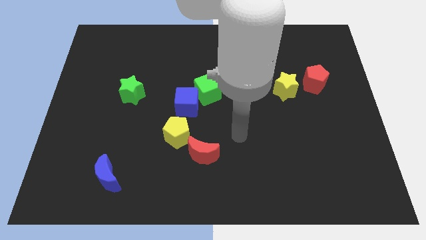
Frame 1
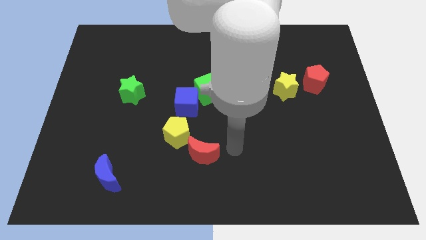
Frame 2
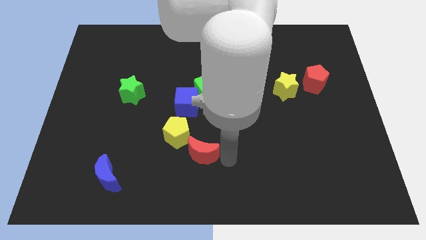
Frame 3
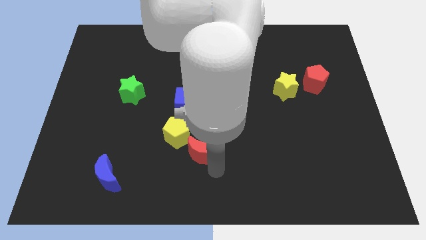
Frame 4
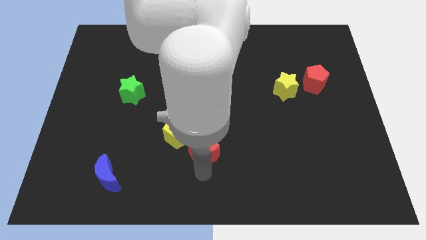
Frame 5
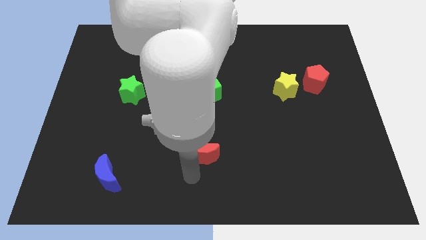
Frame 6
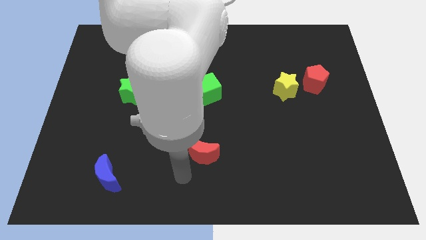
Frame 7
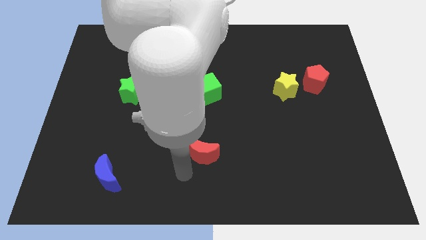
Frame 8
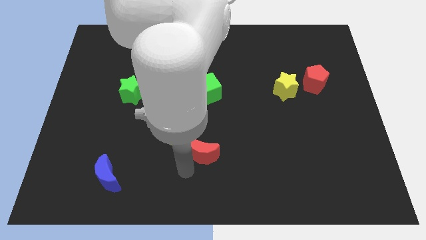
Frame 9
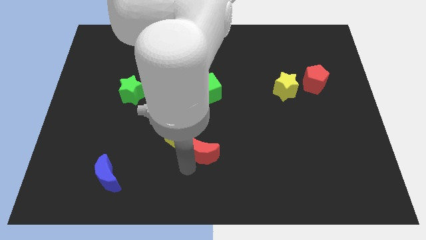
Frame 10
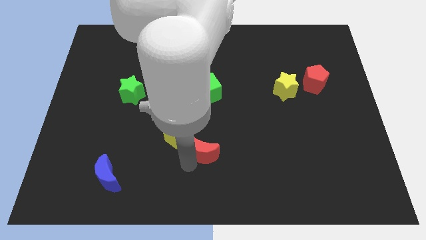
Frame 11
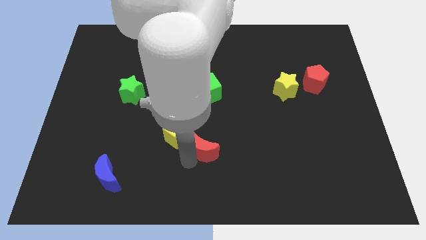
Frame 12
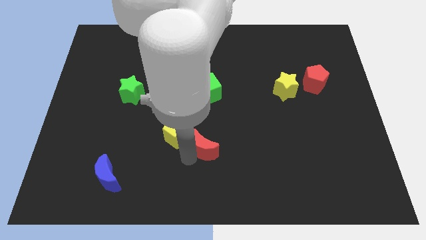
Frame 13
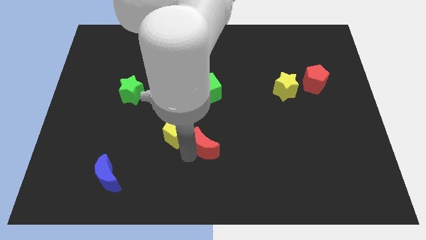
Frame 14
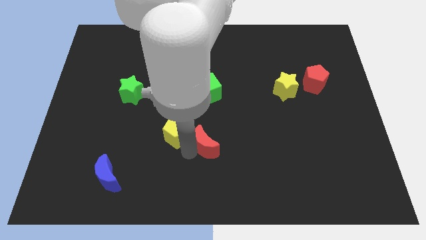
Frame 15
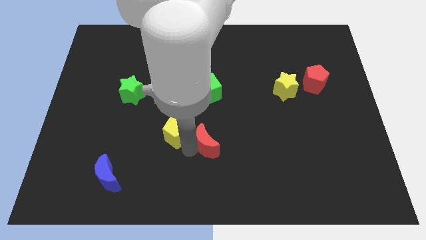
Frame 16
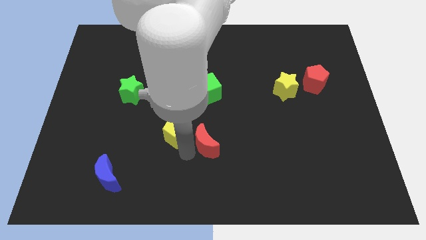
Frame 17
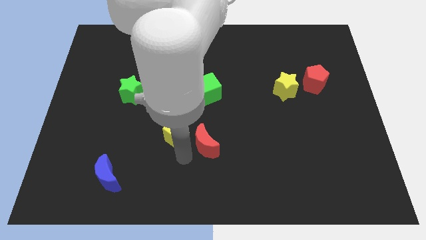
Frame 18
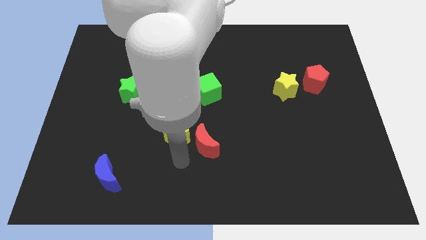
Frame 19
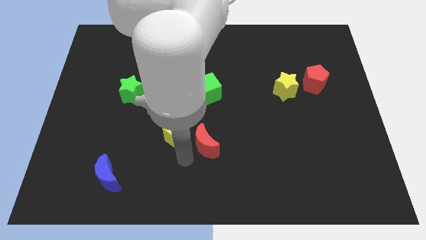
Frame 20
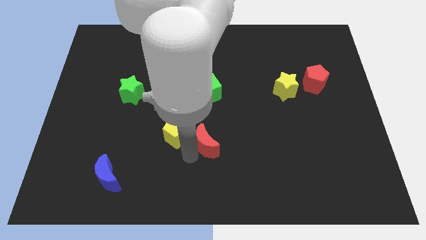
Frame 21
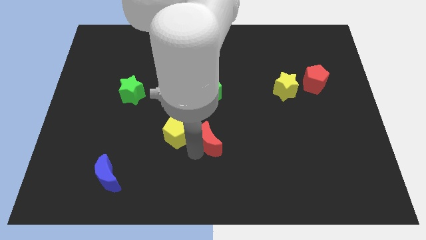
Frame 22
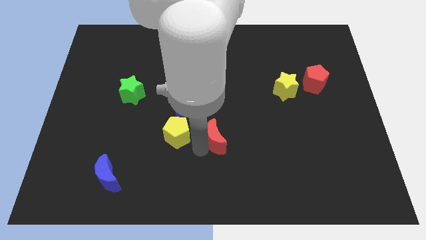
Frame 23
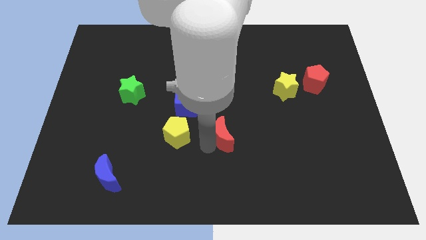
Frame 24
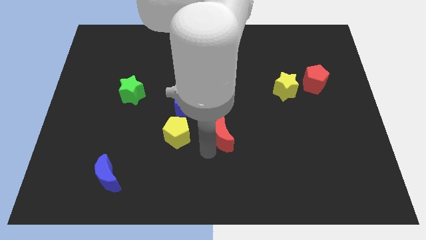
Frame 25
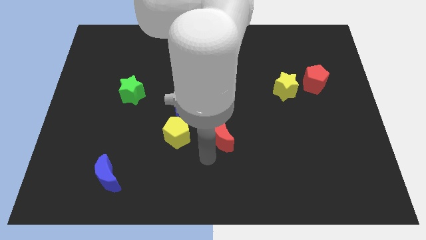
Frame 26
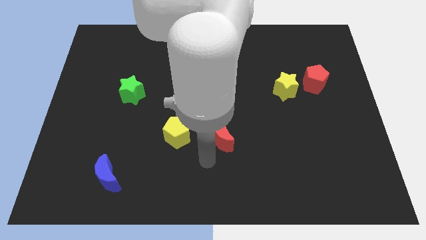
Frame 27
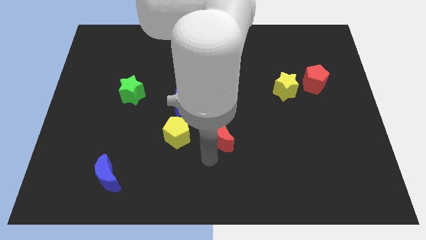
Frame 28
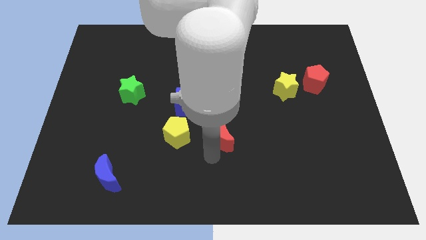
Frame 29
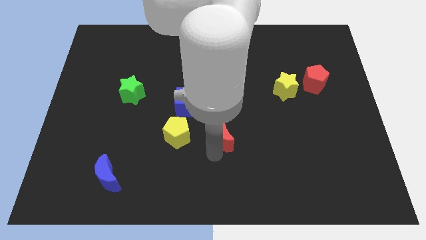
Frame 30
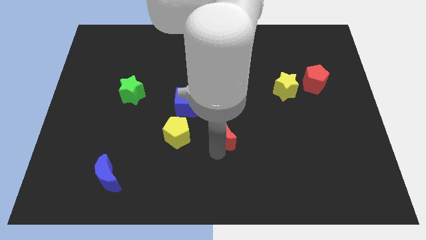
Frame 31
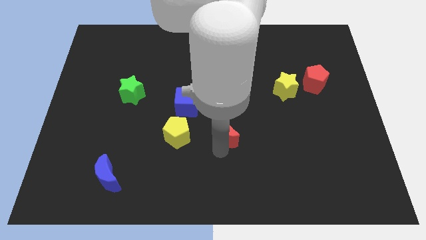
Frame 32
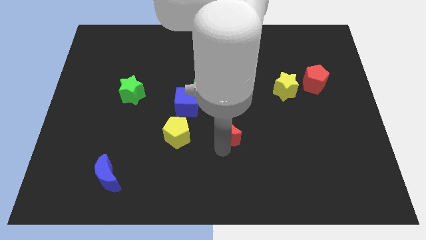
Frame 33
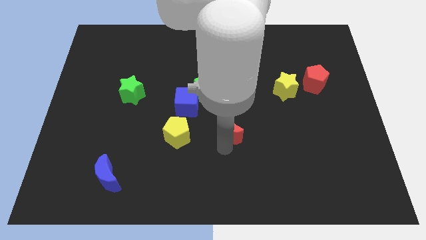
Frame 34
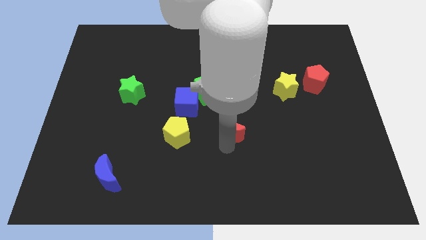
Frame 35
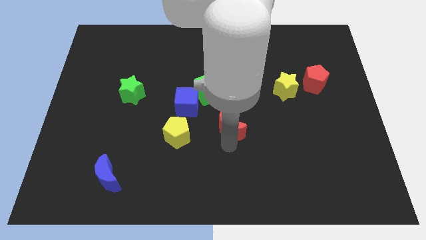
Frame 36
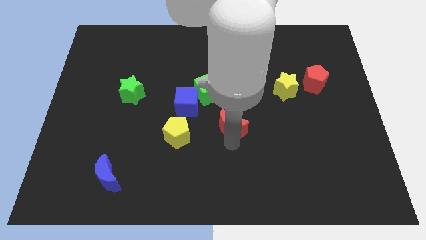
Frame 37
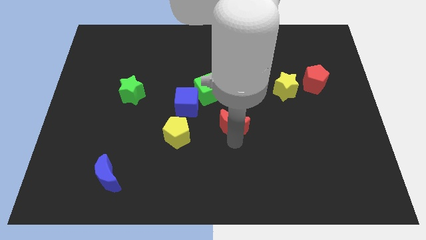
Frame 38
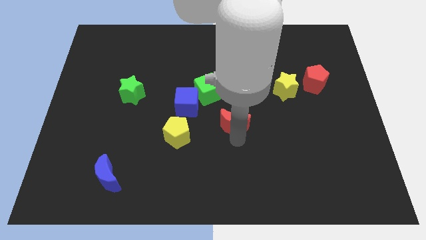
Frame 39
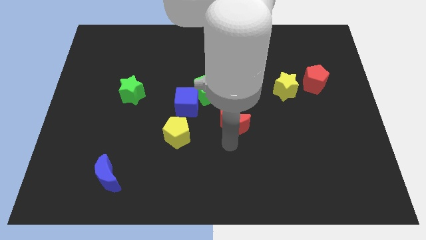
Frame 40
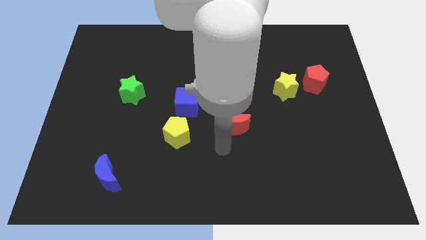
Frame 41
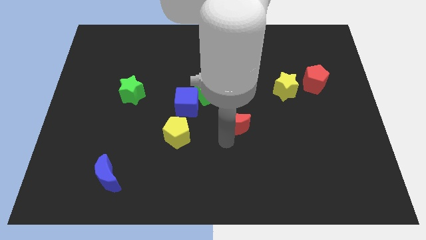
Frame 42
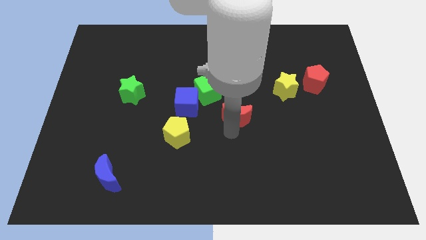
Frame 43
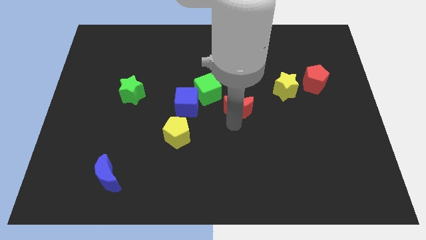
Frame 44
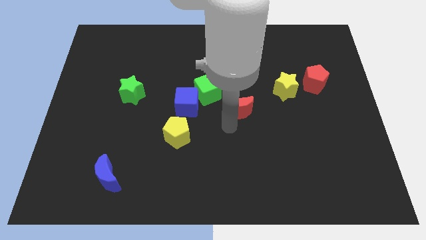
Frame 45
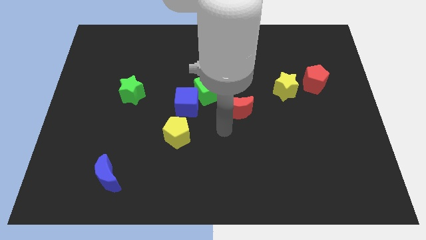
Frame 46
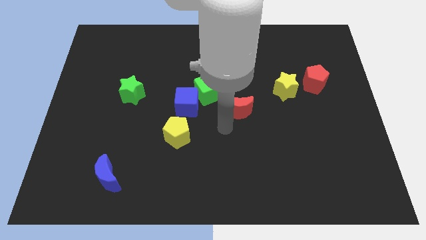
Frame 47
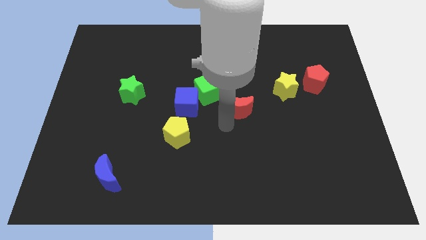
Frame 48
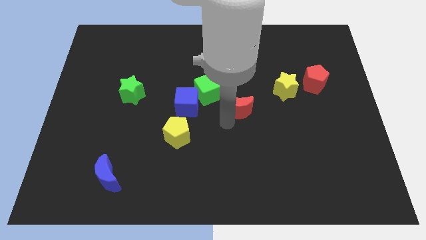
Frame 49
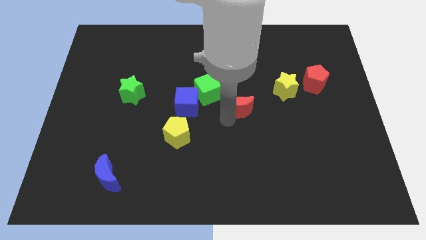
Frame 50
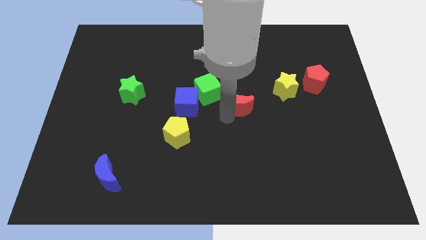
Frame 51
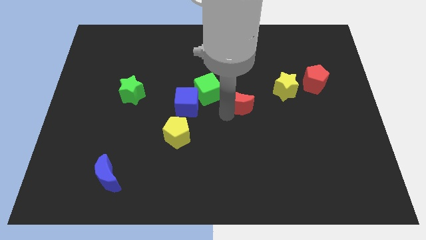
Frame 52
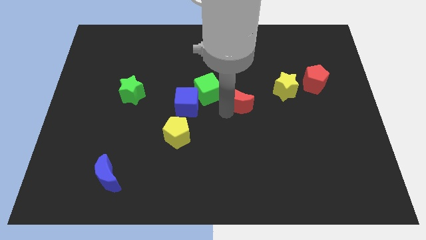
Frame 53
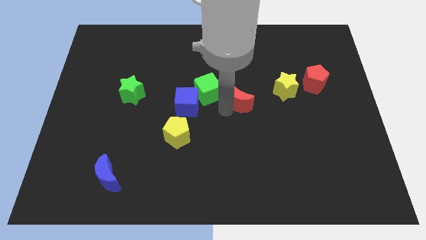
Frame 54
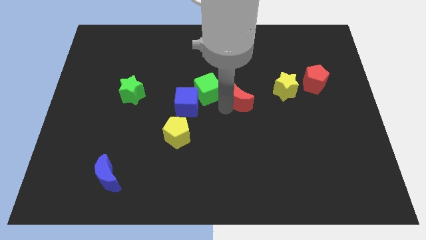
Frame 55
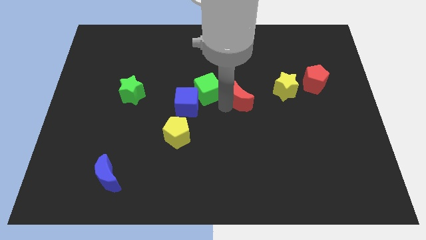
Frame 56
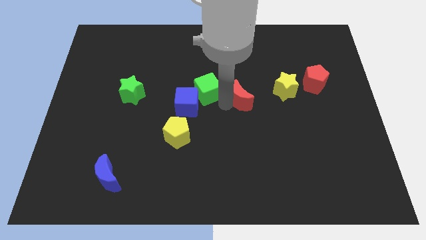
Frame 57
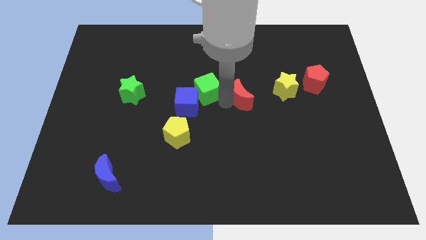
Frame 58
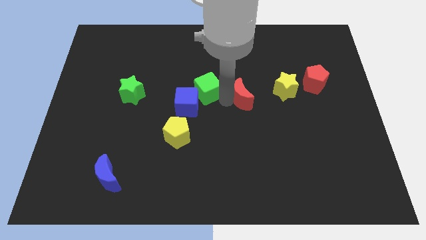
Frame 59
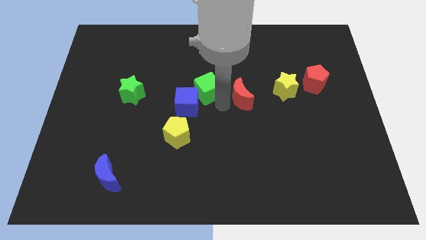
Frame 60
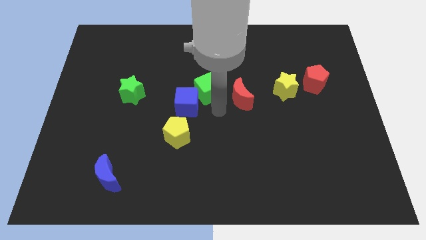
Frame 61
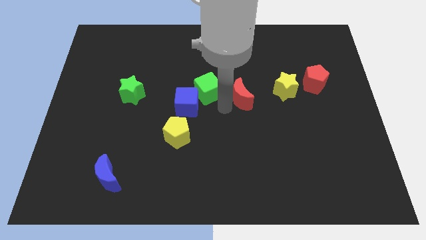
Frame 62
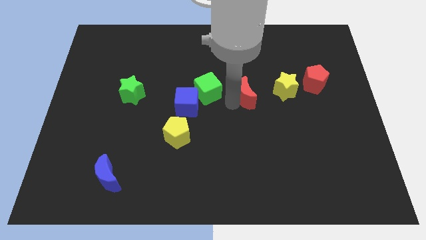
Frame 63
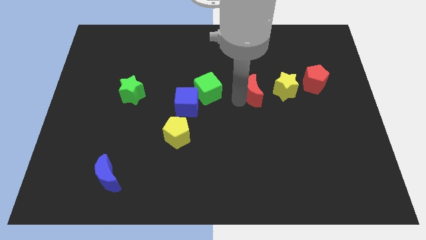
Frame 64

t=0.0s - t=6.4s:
move the red moon upwards and then to the right

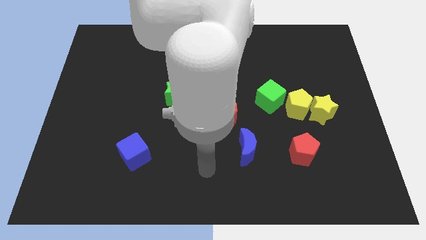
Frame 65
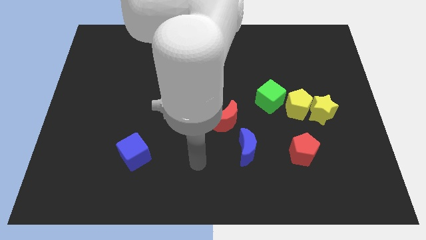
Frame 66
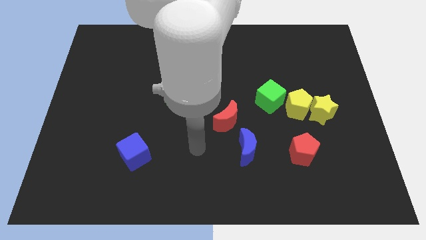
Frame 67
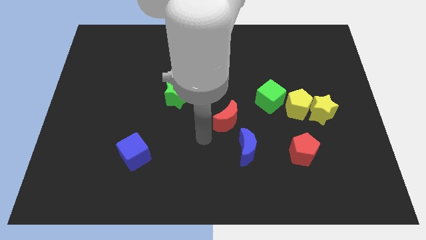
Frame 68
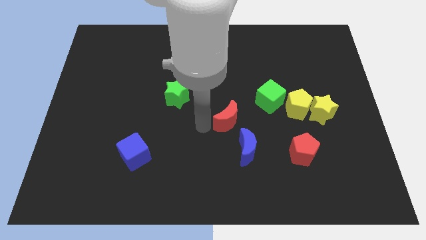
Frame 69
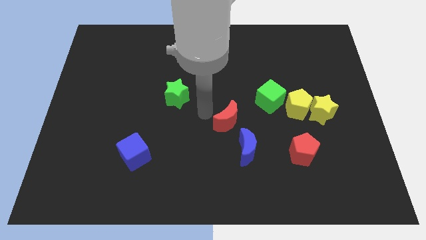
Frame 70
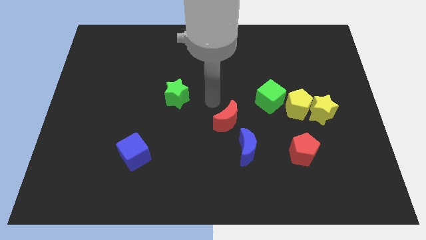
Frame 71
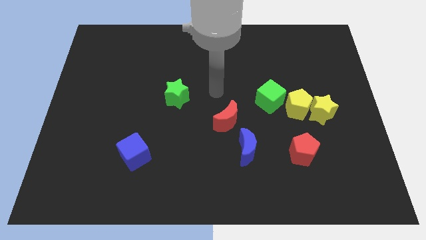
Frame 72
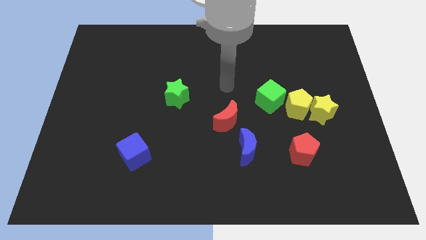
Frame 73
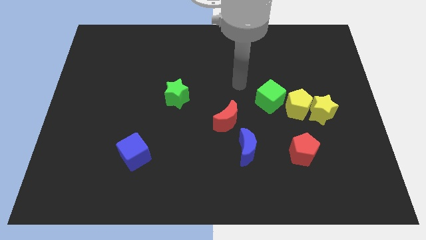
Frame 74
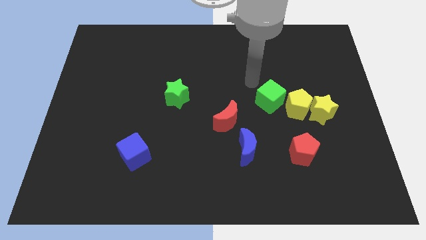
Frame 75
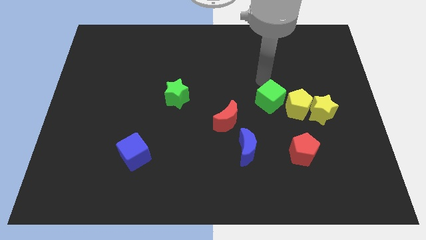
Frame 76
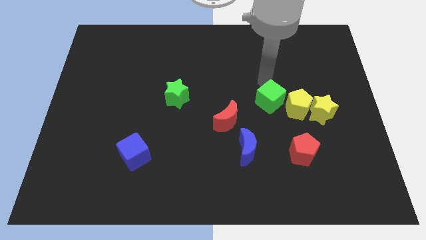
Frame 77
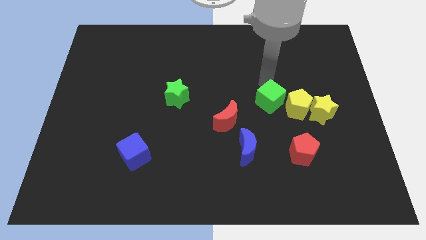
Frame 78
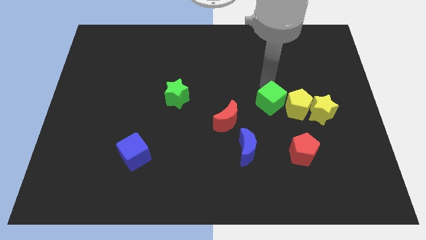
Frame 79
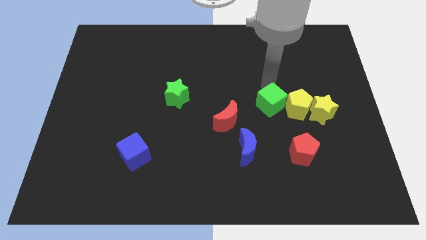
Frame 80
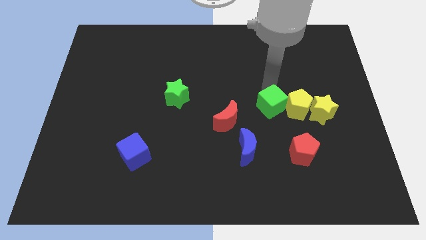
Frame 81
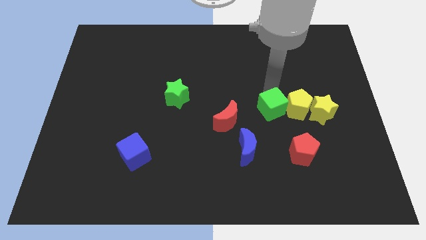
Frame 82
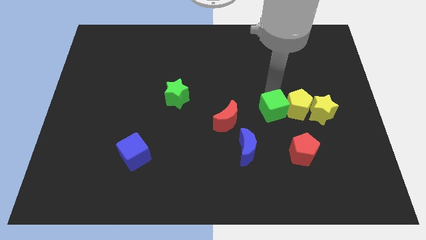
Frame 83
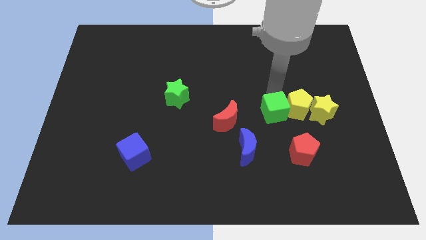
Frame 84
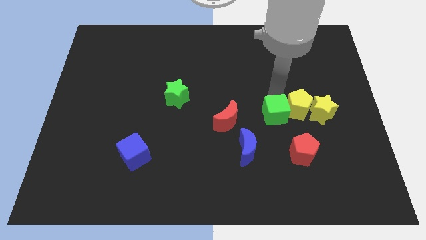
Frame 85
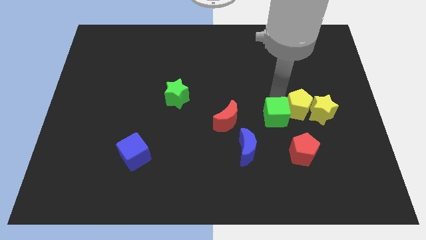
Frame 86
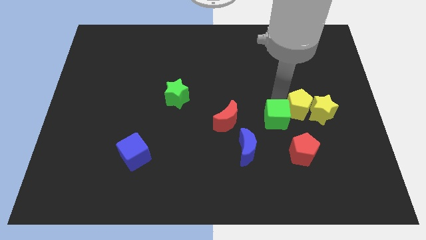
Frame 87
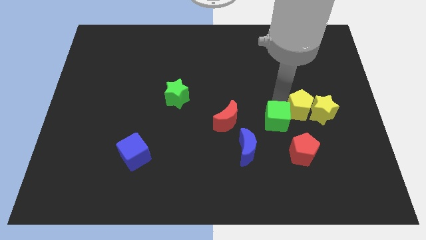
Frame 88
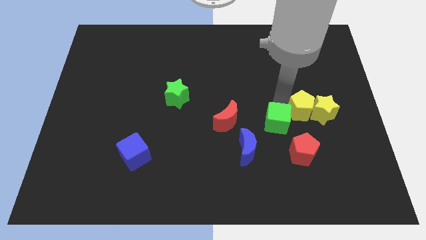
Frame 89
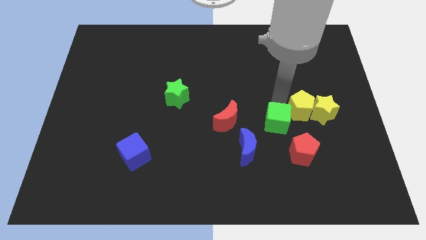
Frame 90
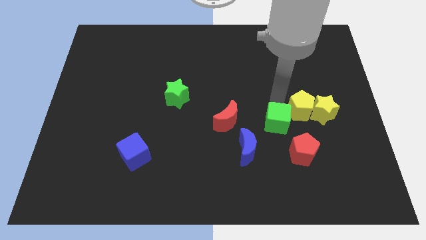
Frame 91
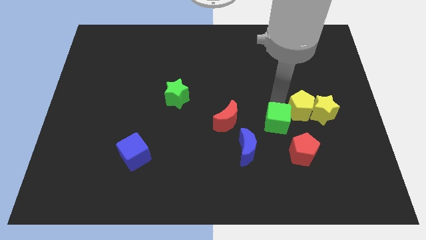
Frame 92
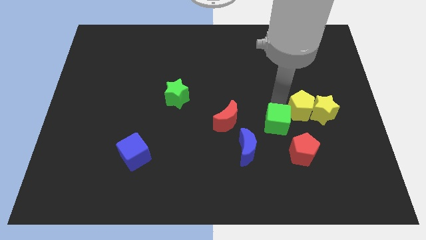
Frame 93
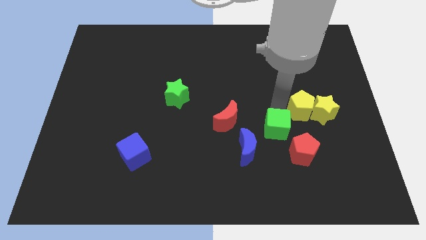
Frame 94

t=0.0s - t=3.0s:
move the green cube downwards a bit
